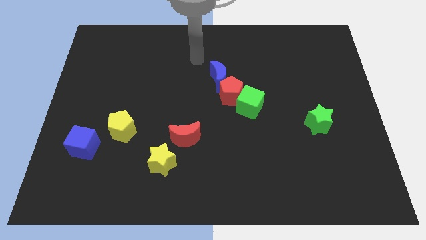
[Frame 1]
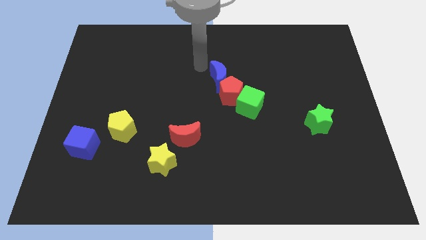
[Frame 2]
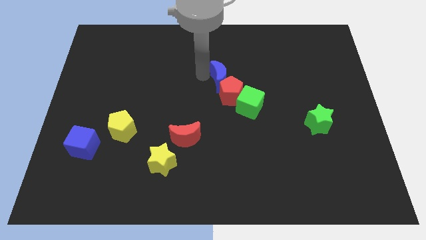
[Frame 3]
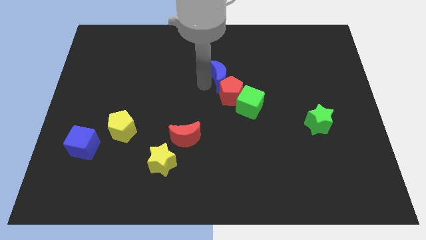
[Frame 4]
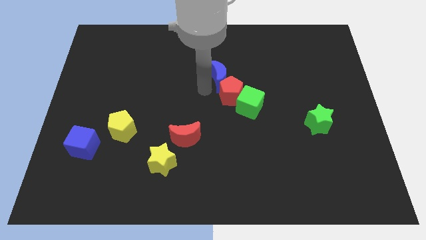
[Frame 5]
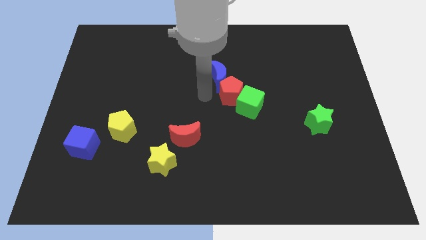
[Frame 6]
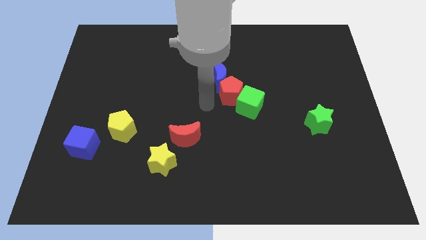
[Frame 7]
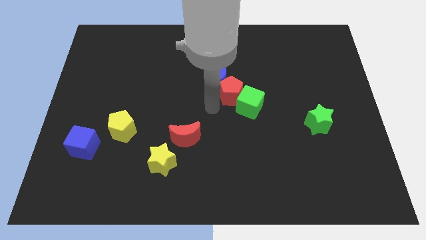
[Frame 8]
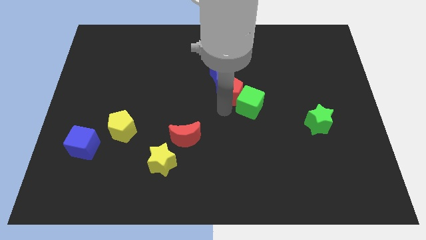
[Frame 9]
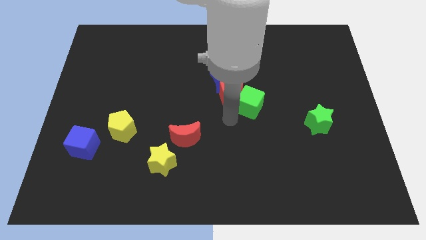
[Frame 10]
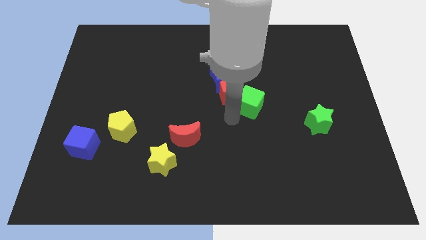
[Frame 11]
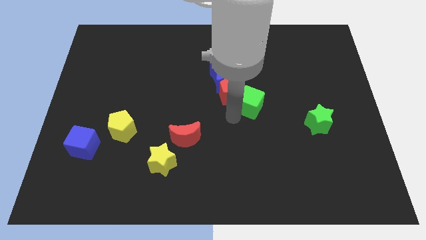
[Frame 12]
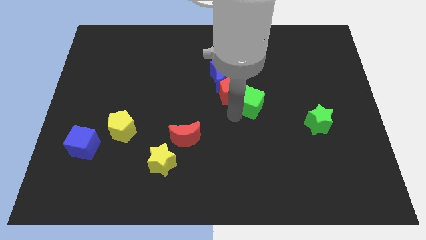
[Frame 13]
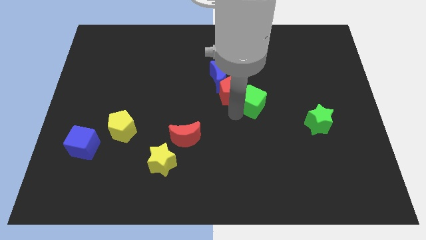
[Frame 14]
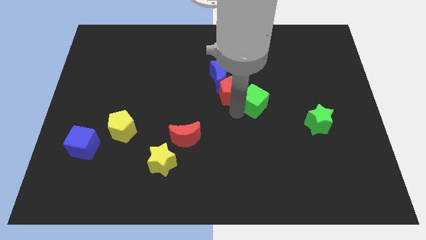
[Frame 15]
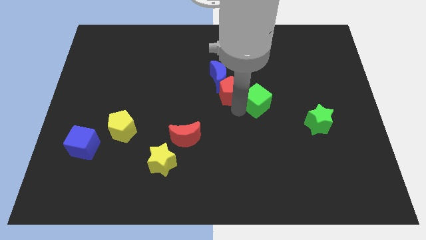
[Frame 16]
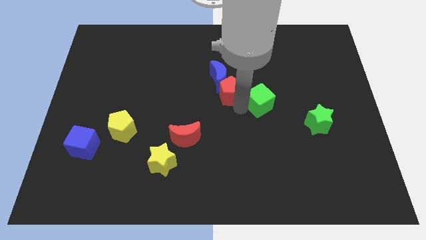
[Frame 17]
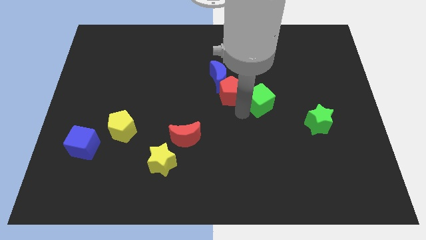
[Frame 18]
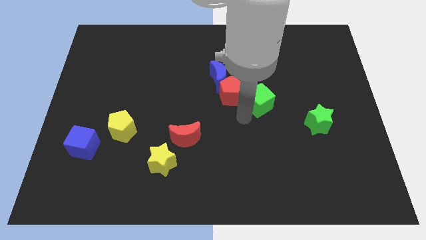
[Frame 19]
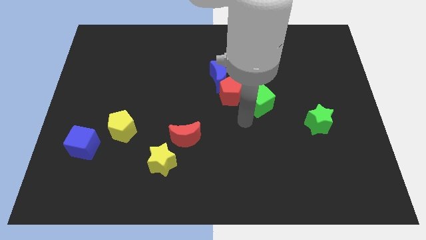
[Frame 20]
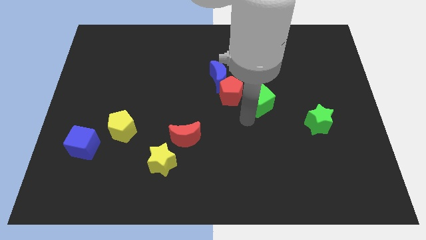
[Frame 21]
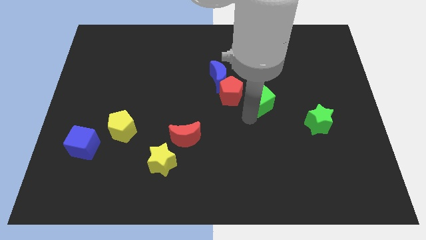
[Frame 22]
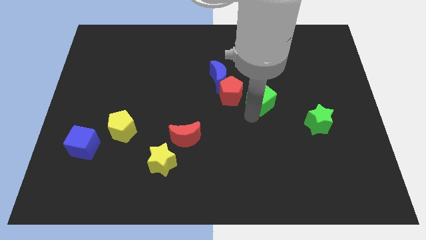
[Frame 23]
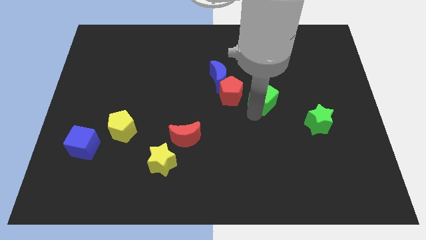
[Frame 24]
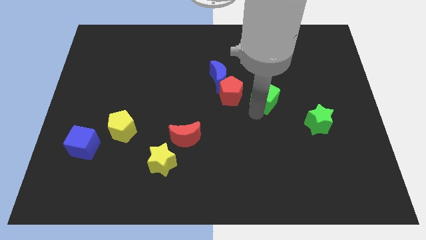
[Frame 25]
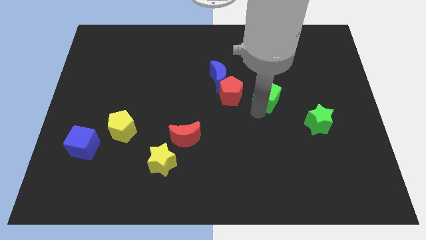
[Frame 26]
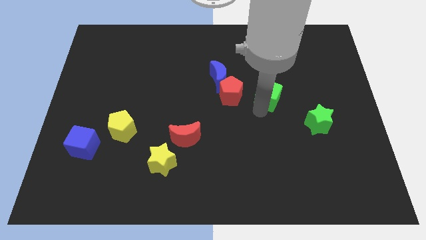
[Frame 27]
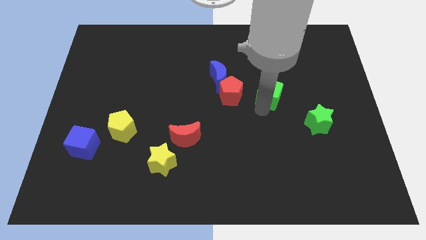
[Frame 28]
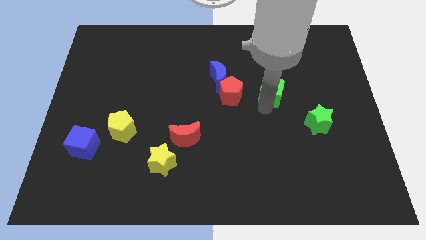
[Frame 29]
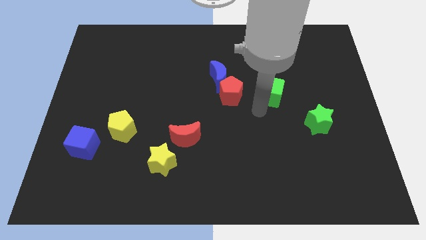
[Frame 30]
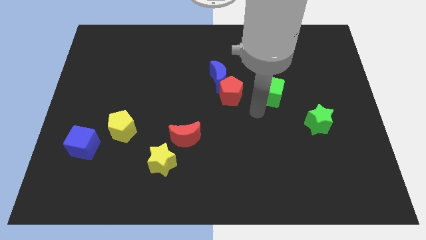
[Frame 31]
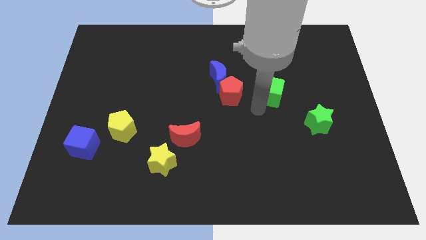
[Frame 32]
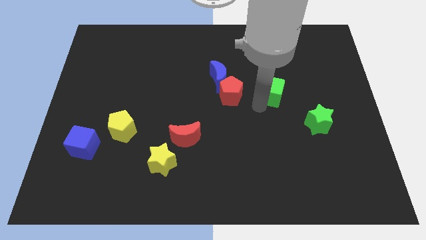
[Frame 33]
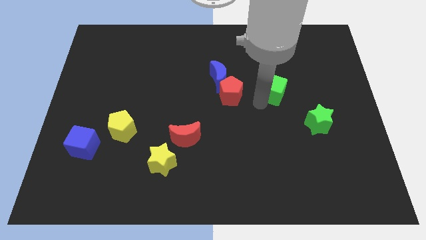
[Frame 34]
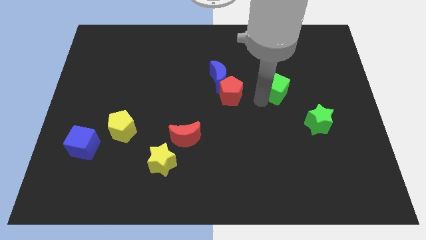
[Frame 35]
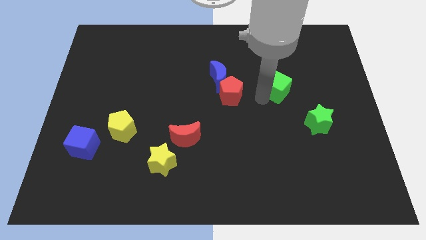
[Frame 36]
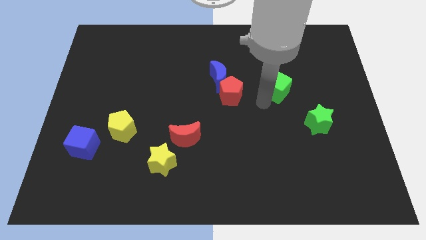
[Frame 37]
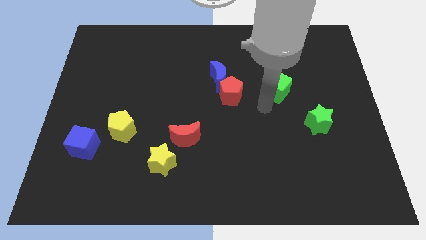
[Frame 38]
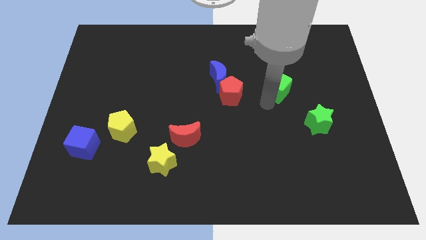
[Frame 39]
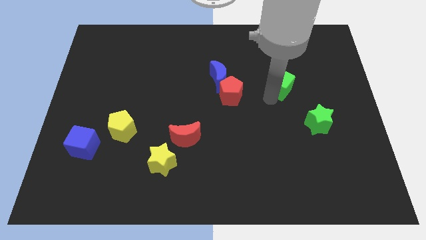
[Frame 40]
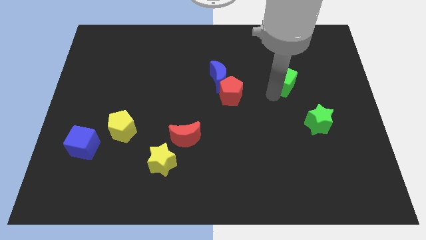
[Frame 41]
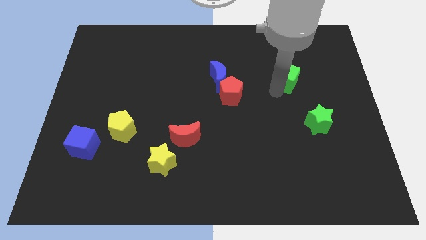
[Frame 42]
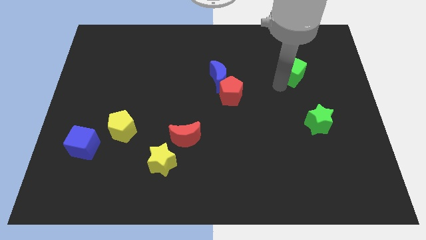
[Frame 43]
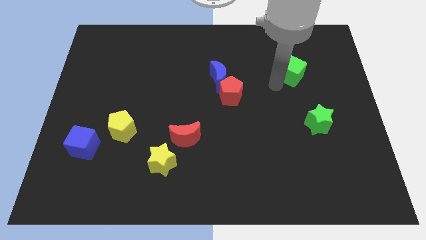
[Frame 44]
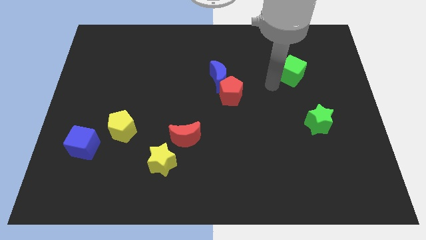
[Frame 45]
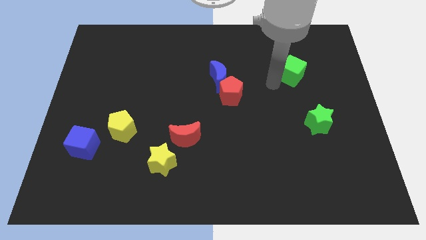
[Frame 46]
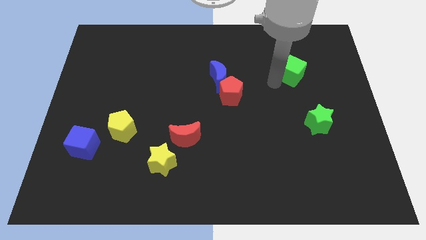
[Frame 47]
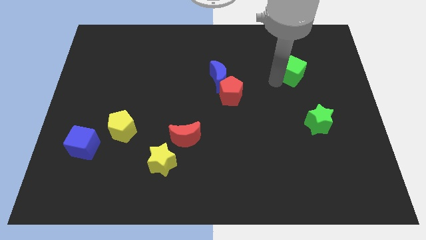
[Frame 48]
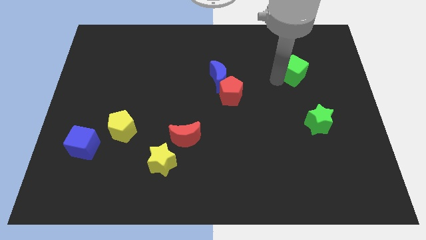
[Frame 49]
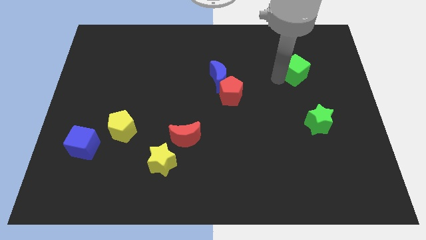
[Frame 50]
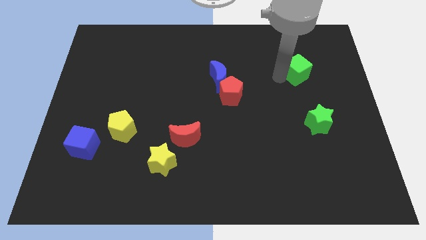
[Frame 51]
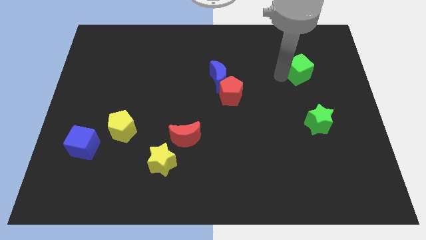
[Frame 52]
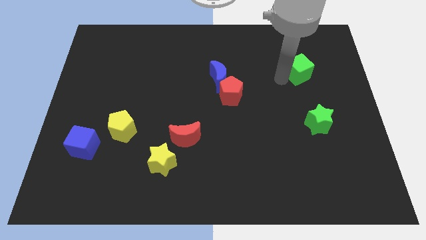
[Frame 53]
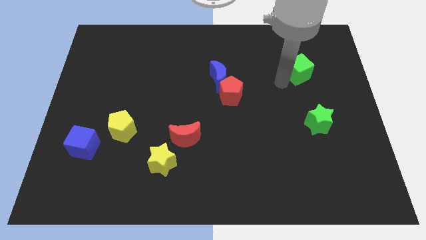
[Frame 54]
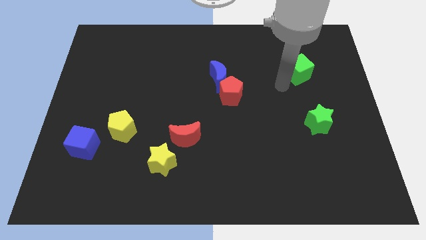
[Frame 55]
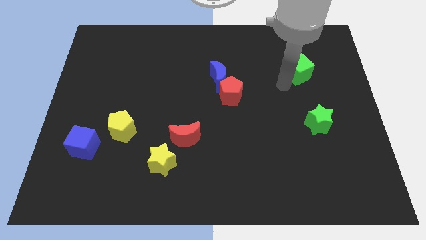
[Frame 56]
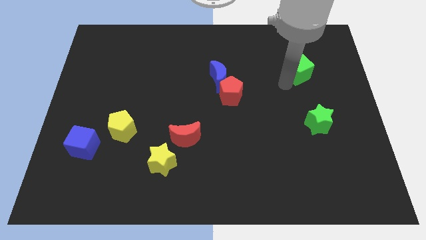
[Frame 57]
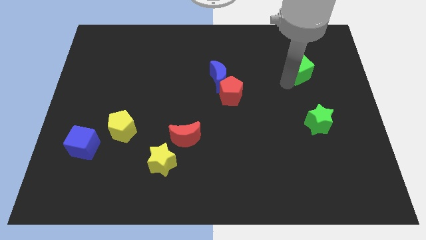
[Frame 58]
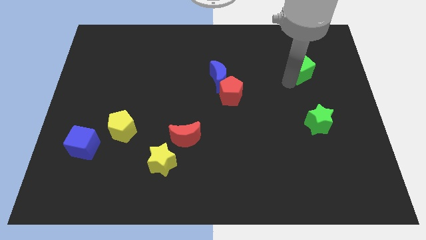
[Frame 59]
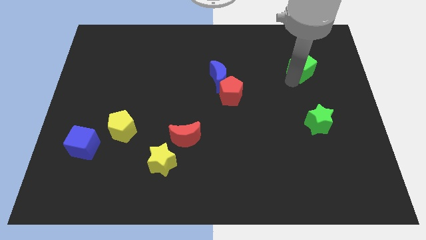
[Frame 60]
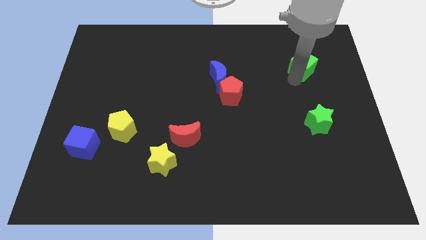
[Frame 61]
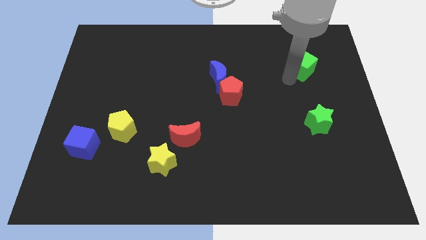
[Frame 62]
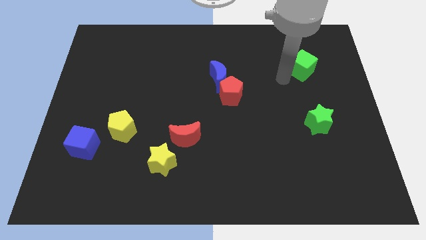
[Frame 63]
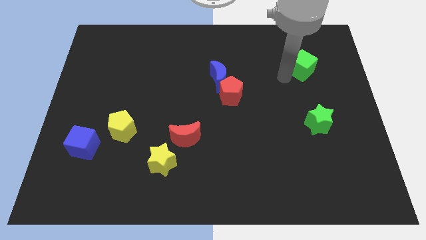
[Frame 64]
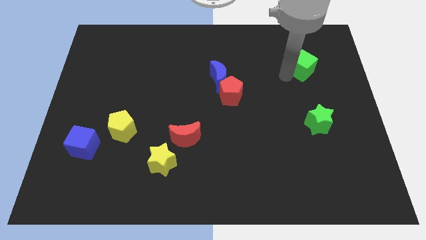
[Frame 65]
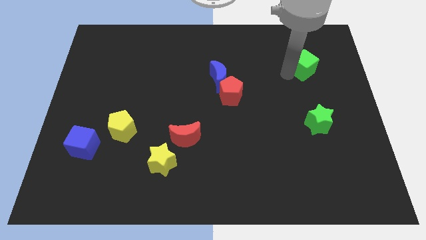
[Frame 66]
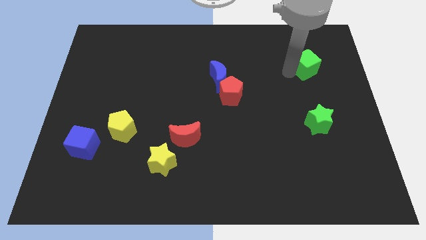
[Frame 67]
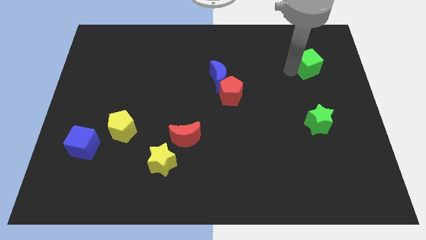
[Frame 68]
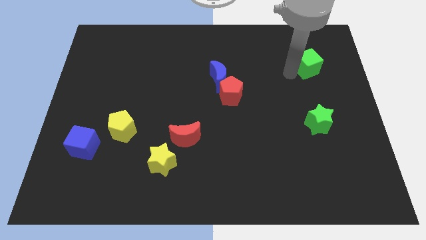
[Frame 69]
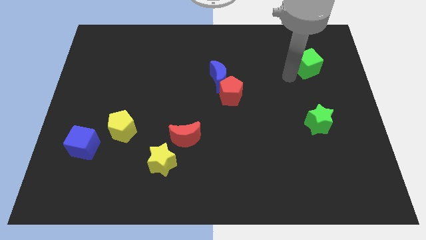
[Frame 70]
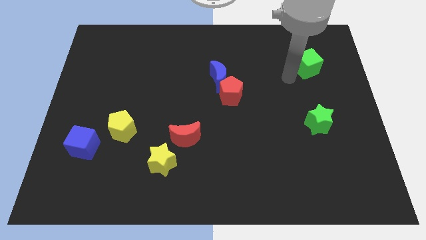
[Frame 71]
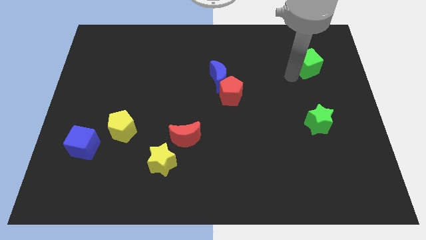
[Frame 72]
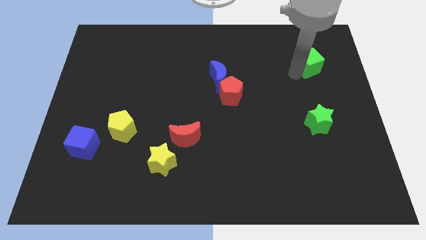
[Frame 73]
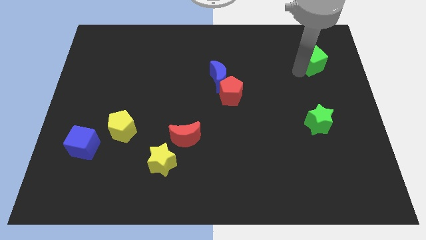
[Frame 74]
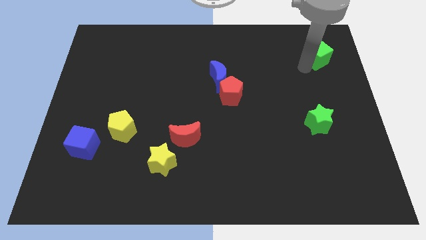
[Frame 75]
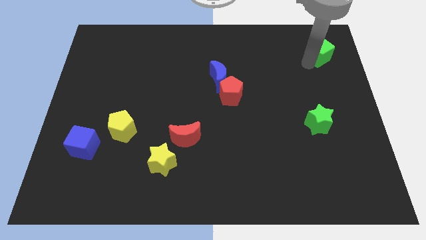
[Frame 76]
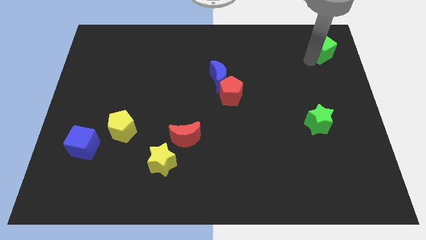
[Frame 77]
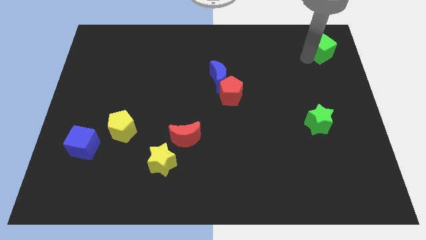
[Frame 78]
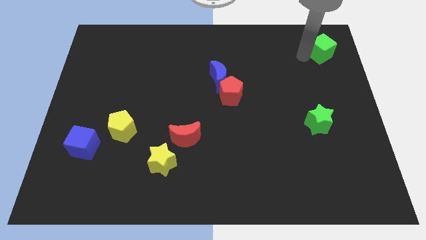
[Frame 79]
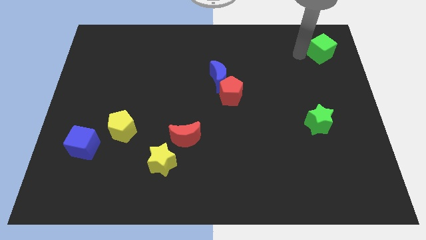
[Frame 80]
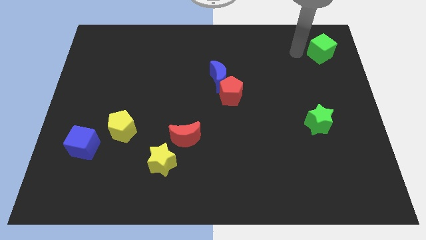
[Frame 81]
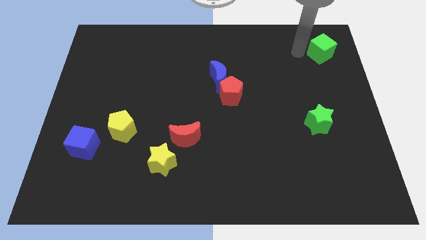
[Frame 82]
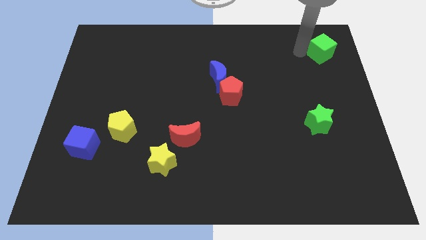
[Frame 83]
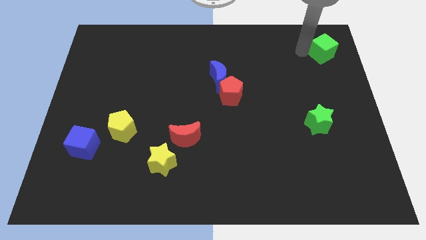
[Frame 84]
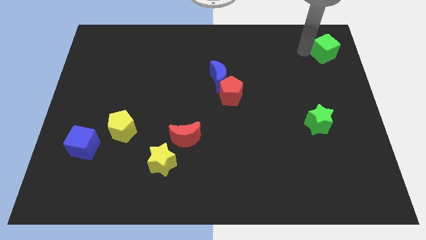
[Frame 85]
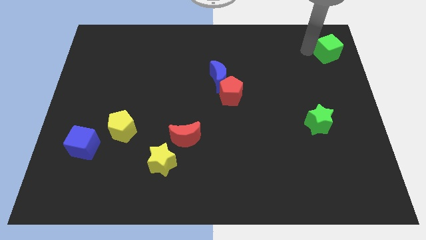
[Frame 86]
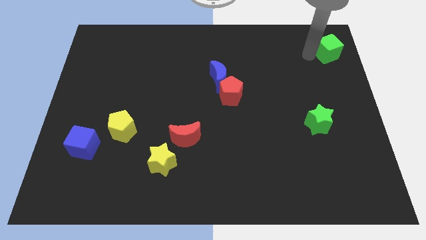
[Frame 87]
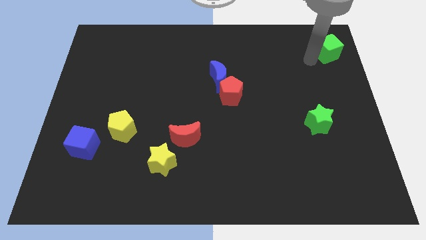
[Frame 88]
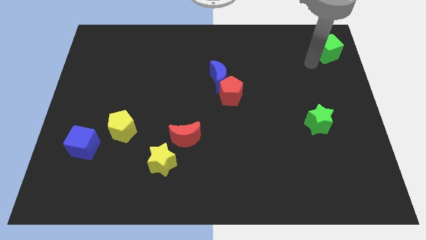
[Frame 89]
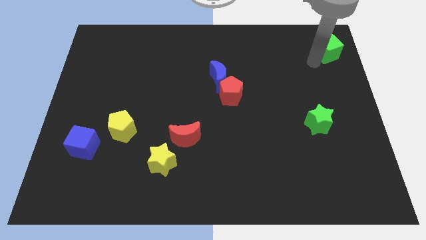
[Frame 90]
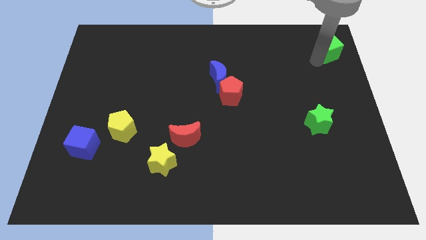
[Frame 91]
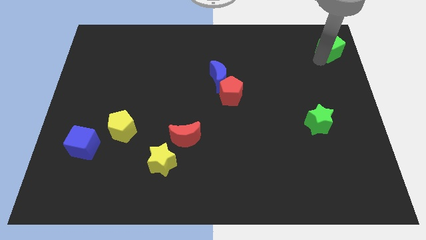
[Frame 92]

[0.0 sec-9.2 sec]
move the green cube to the upper right corner
